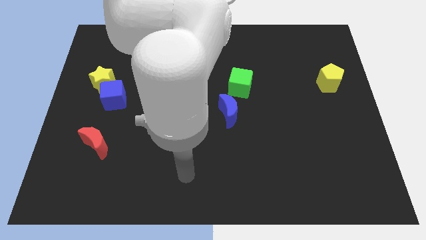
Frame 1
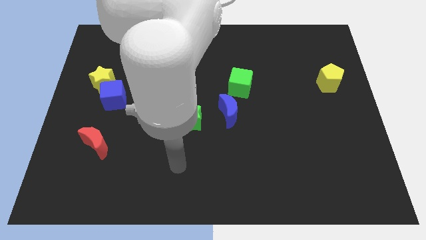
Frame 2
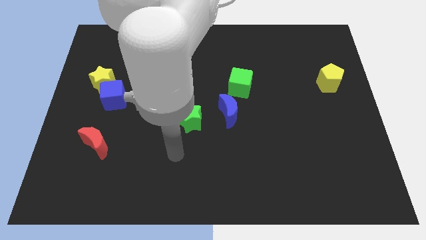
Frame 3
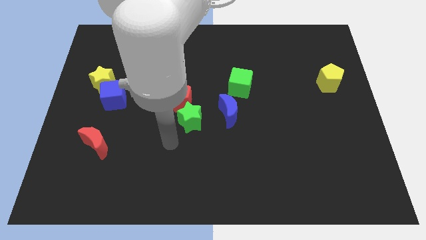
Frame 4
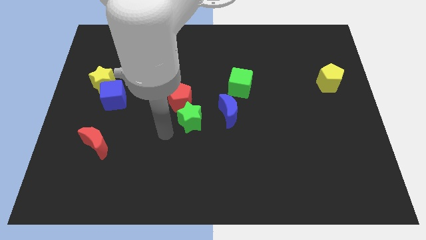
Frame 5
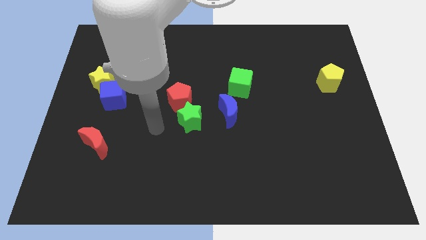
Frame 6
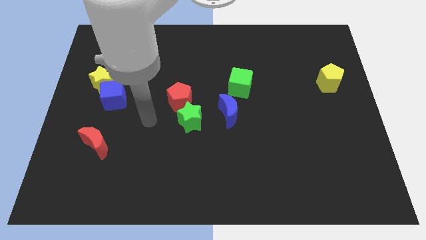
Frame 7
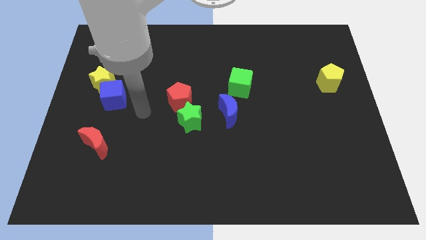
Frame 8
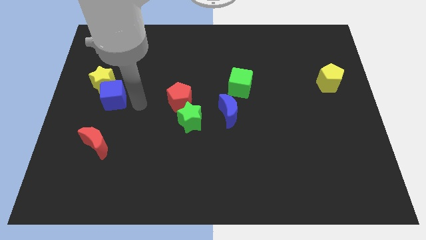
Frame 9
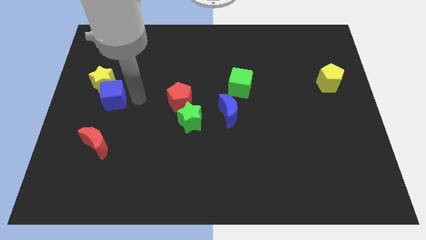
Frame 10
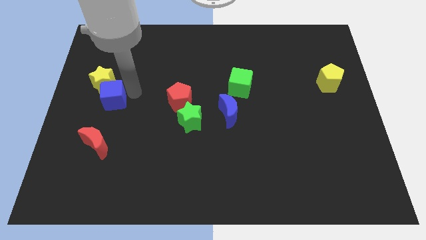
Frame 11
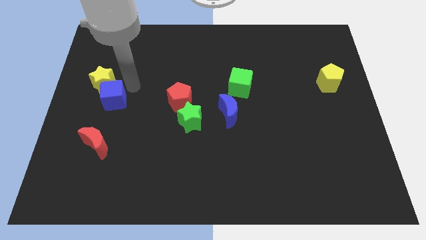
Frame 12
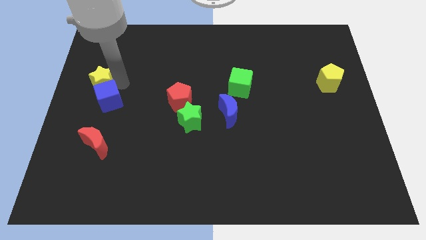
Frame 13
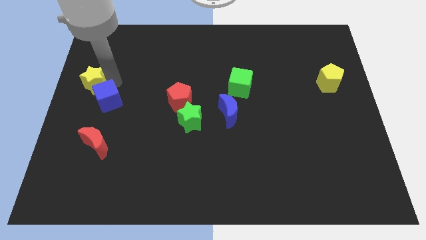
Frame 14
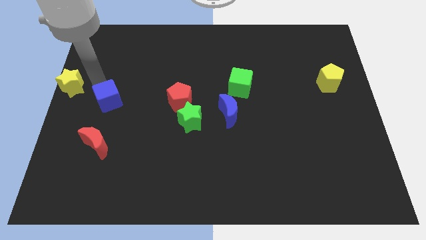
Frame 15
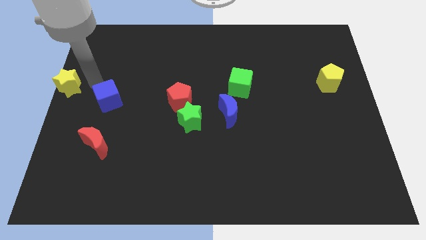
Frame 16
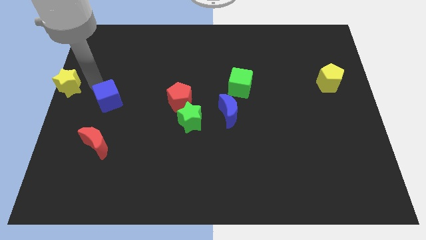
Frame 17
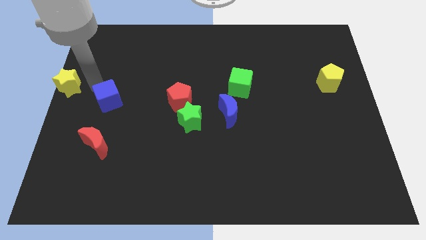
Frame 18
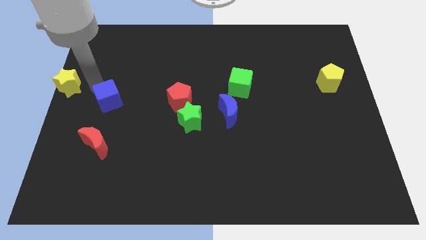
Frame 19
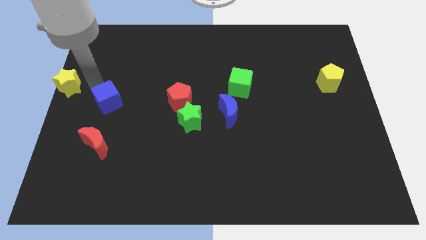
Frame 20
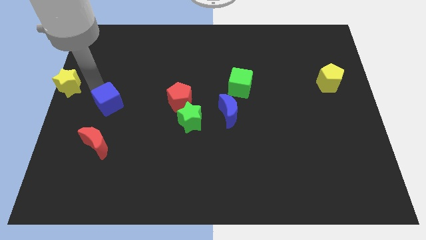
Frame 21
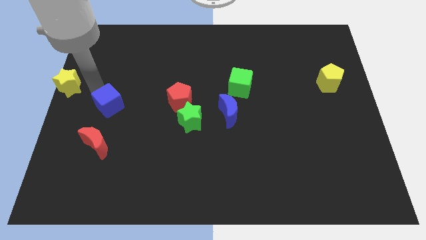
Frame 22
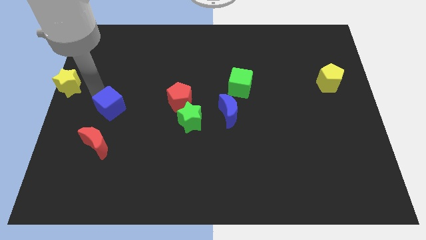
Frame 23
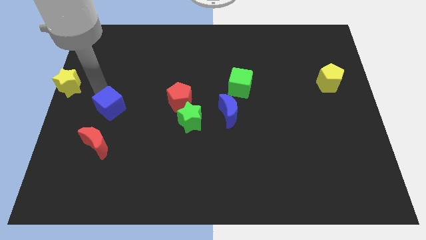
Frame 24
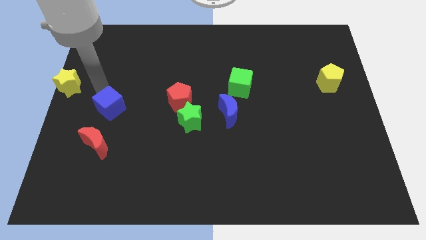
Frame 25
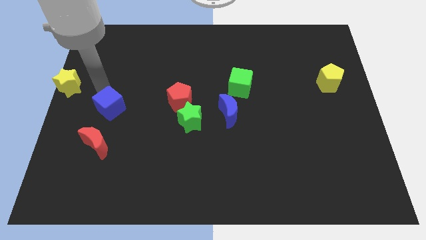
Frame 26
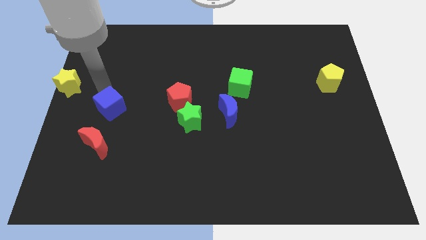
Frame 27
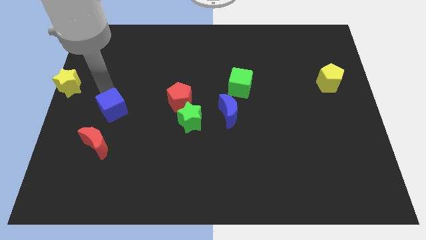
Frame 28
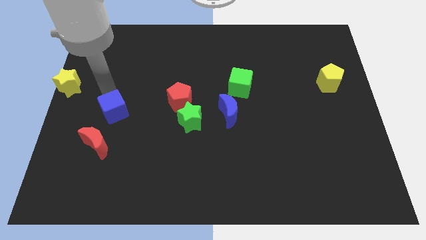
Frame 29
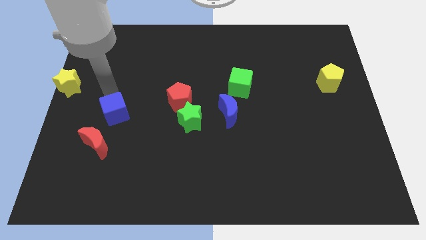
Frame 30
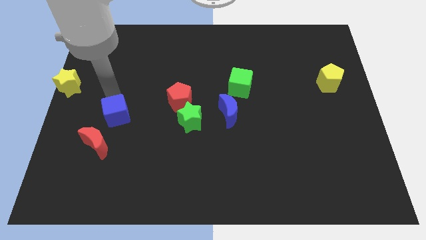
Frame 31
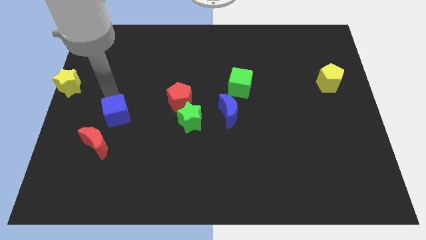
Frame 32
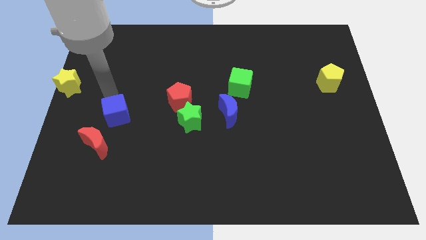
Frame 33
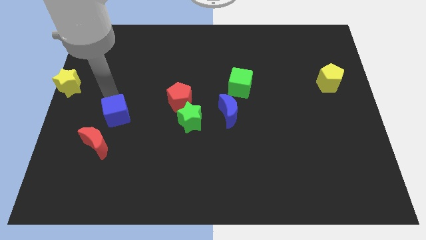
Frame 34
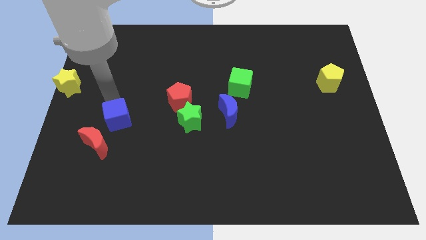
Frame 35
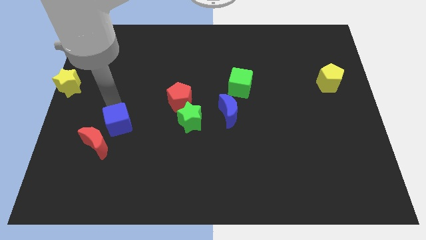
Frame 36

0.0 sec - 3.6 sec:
slide the blue cube somewhat down

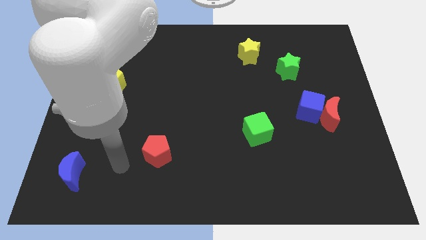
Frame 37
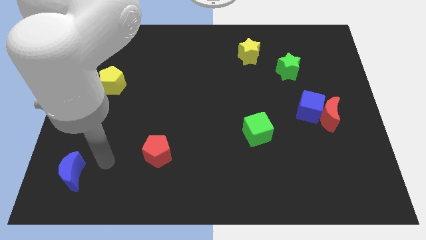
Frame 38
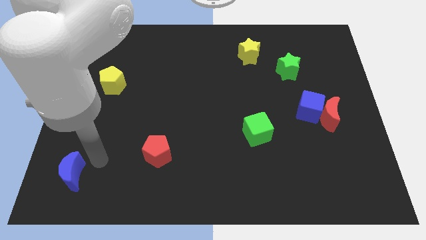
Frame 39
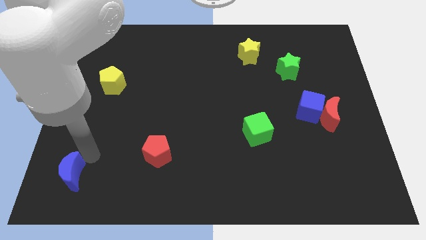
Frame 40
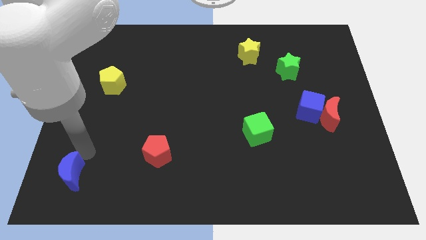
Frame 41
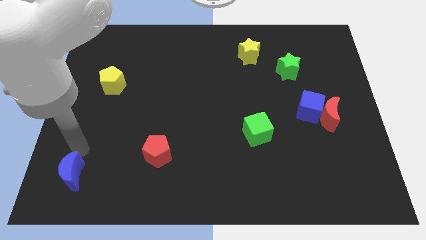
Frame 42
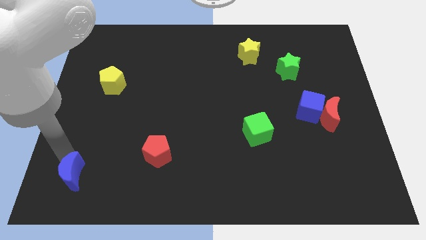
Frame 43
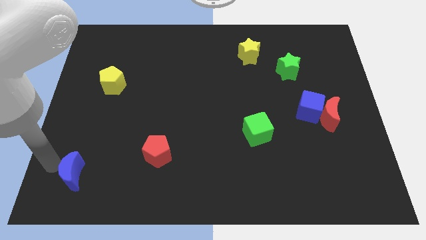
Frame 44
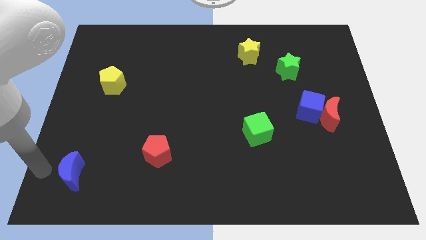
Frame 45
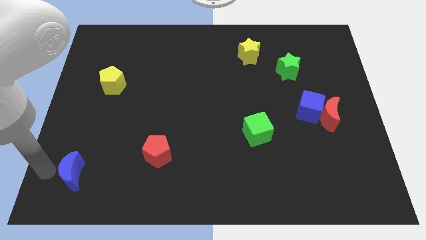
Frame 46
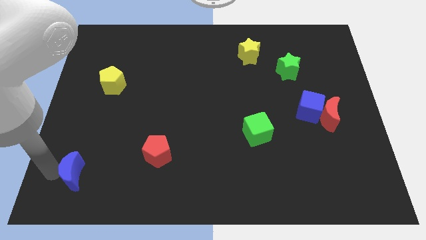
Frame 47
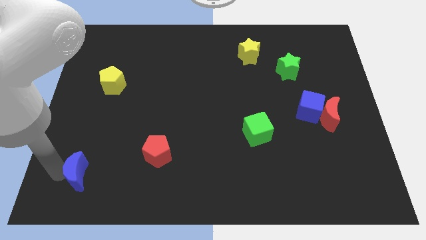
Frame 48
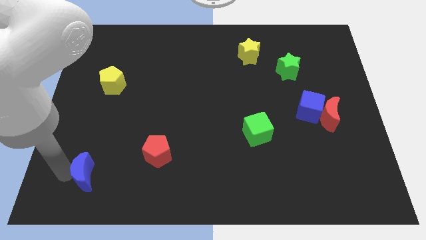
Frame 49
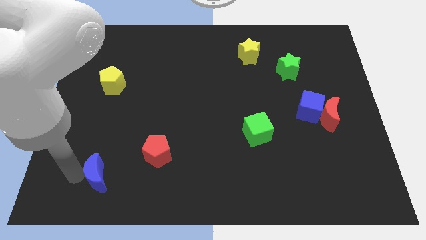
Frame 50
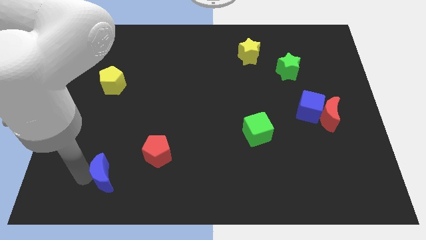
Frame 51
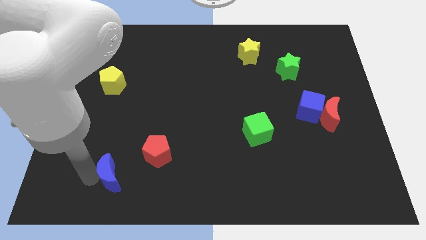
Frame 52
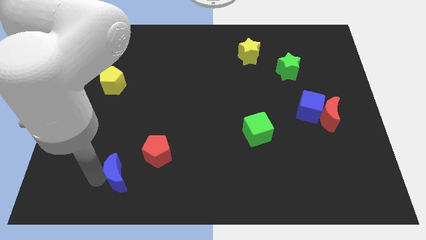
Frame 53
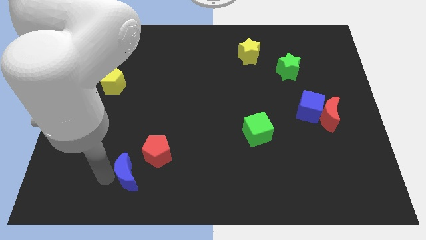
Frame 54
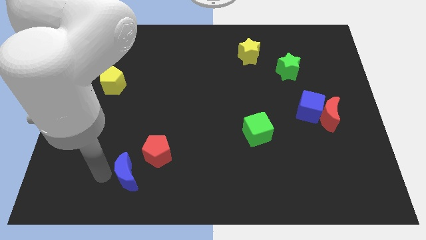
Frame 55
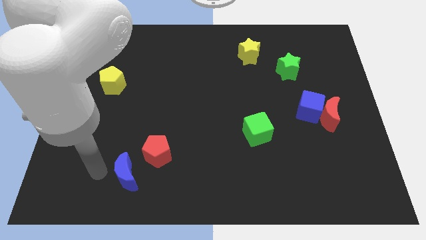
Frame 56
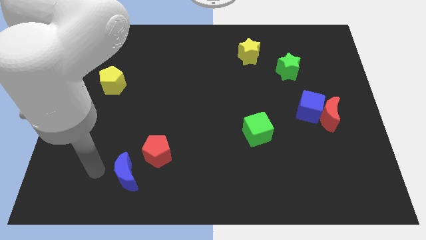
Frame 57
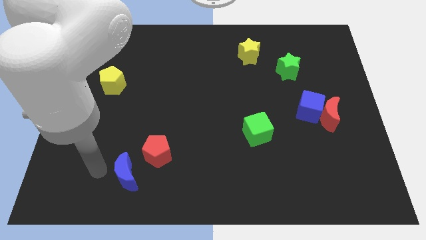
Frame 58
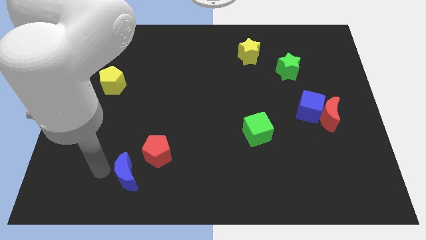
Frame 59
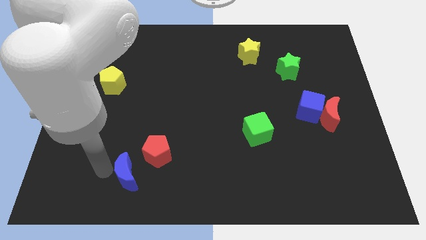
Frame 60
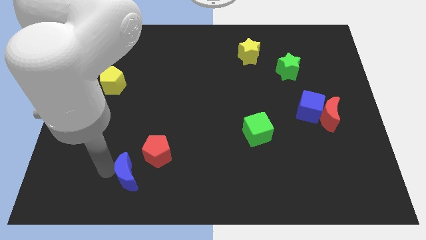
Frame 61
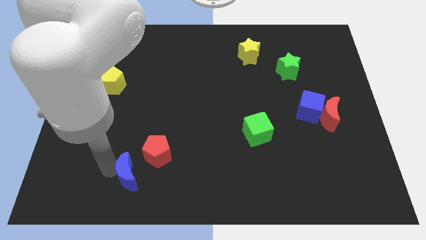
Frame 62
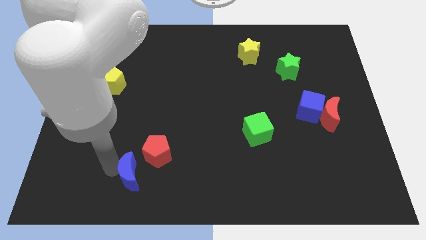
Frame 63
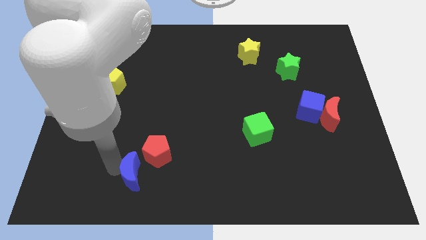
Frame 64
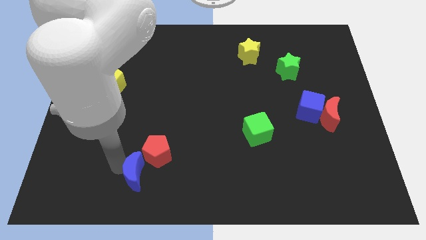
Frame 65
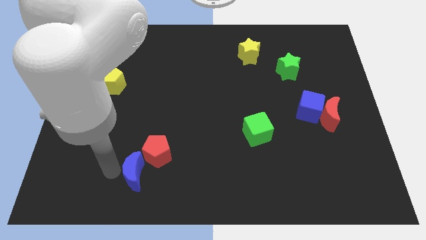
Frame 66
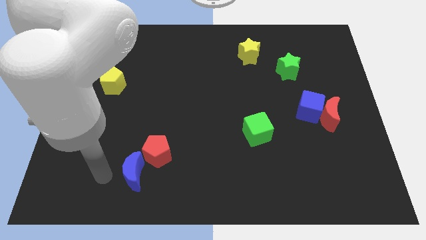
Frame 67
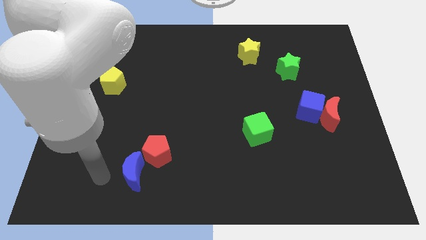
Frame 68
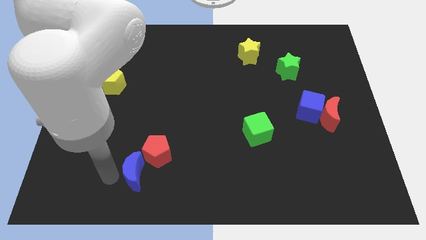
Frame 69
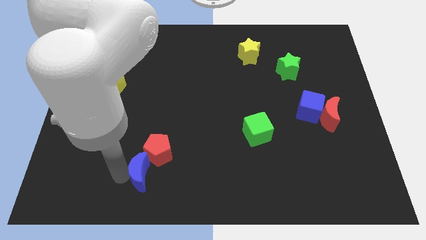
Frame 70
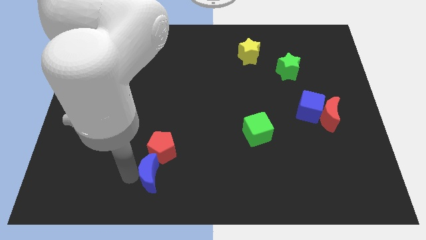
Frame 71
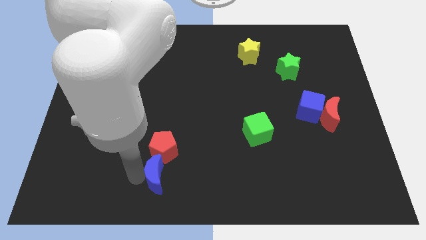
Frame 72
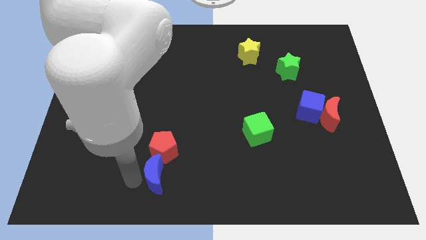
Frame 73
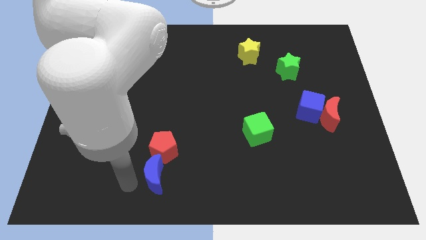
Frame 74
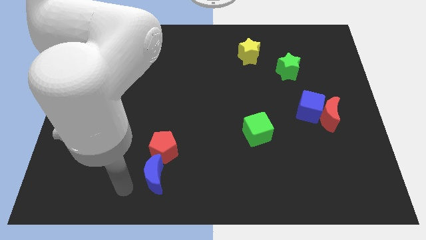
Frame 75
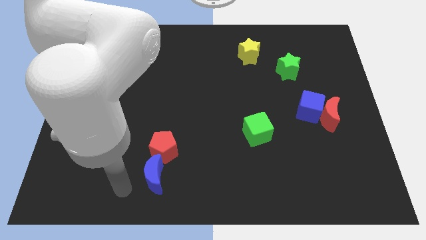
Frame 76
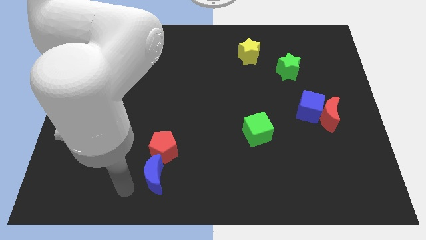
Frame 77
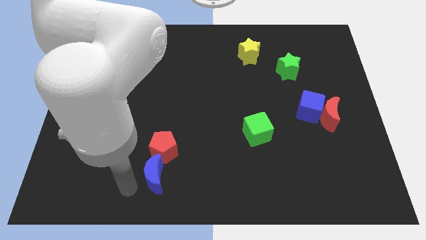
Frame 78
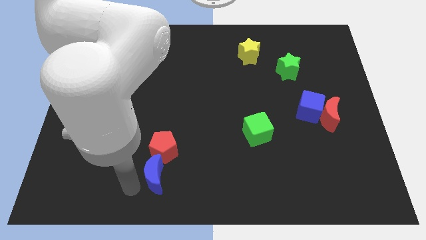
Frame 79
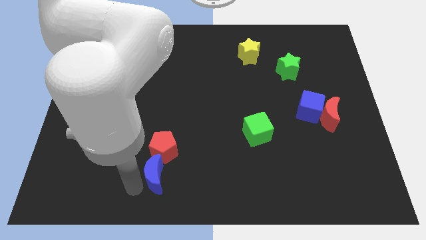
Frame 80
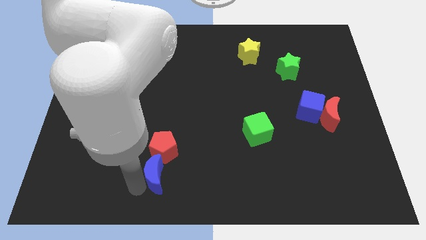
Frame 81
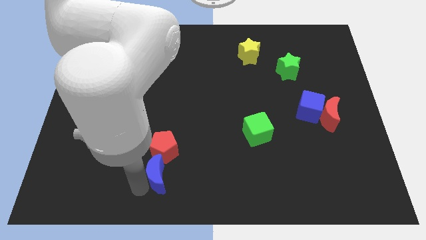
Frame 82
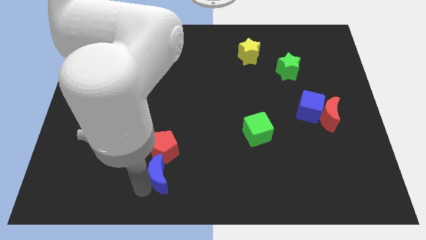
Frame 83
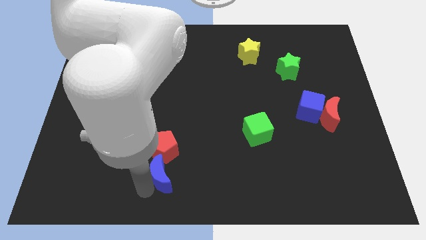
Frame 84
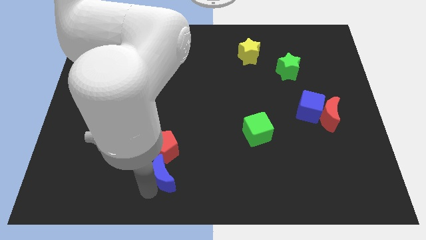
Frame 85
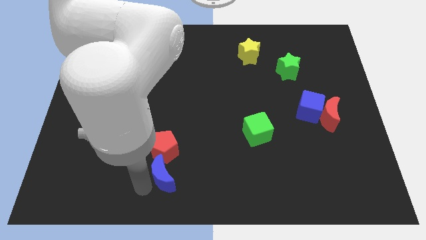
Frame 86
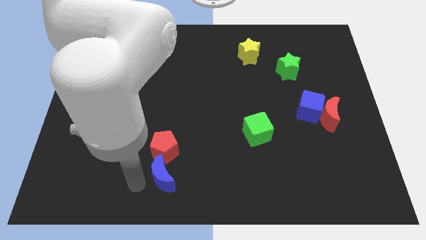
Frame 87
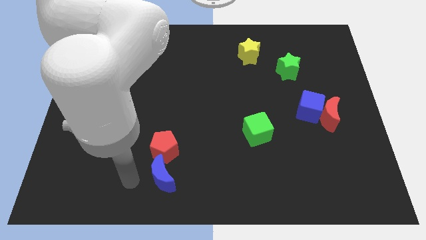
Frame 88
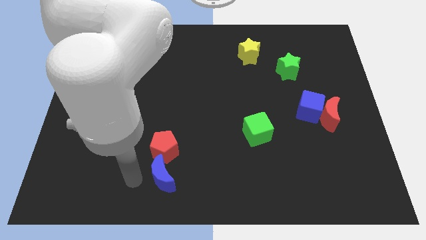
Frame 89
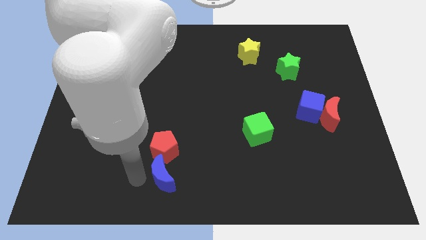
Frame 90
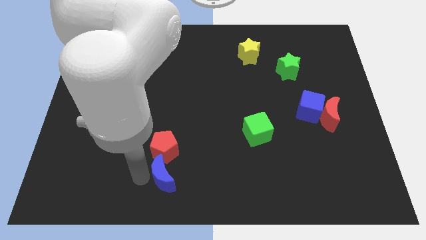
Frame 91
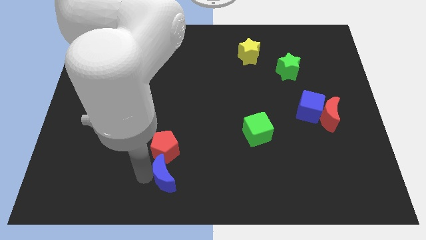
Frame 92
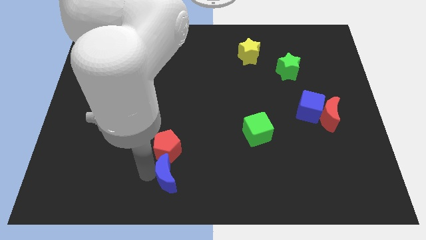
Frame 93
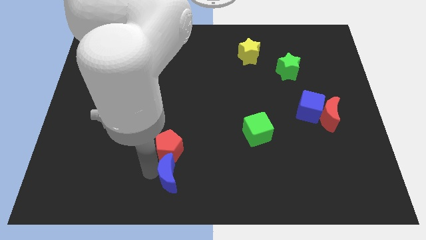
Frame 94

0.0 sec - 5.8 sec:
push the blue moon right
